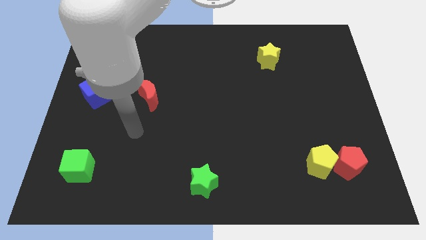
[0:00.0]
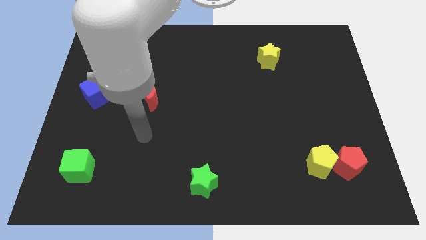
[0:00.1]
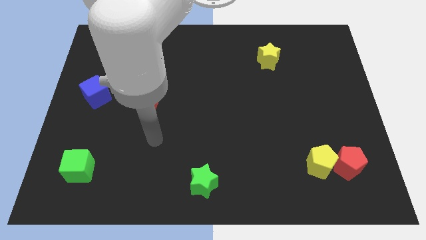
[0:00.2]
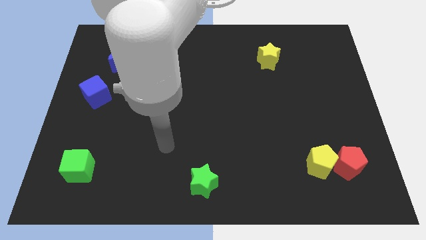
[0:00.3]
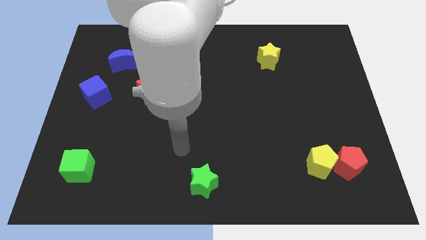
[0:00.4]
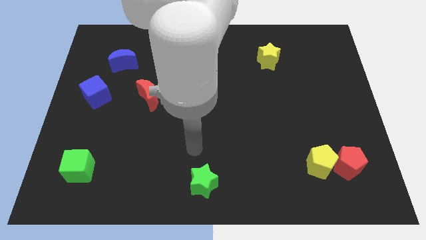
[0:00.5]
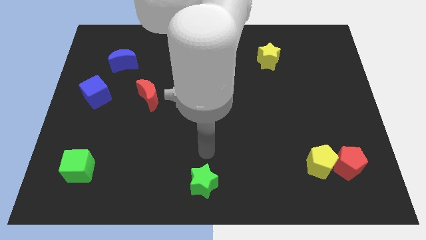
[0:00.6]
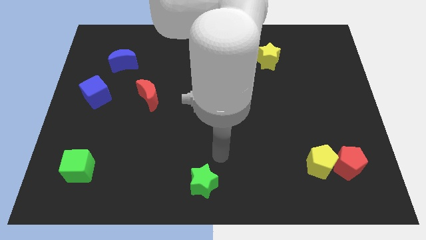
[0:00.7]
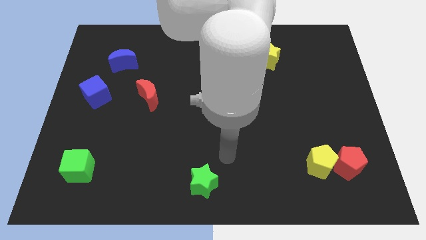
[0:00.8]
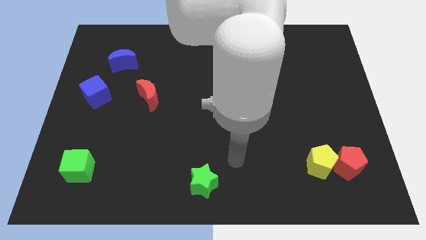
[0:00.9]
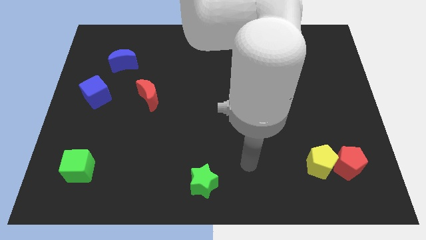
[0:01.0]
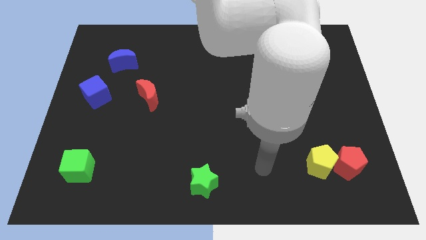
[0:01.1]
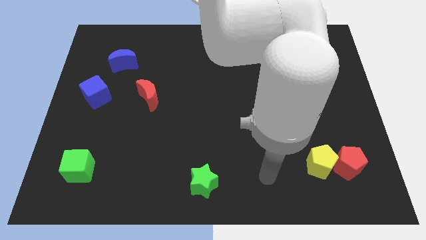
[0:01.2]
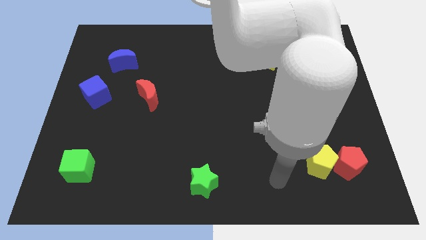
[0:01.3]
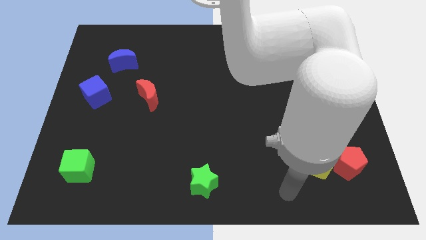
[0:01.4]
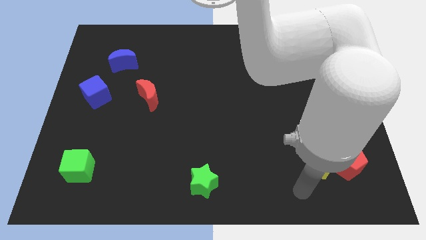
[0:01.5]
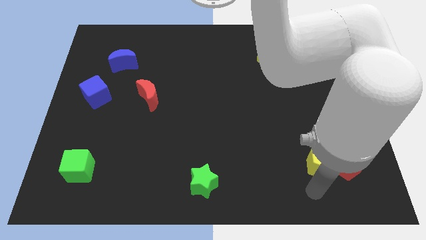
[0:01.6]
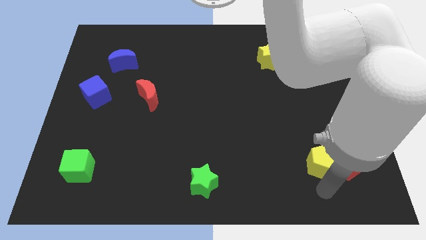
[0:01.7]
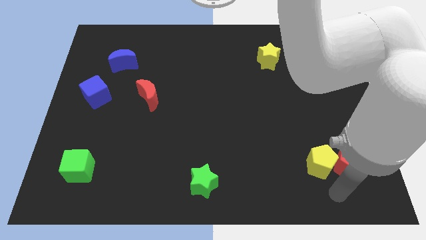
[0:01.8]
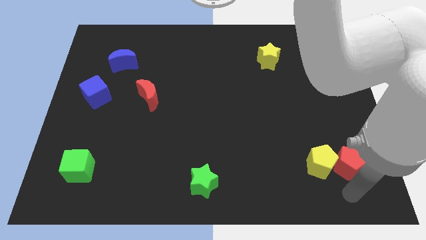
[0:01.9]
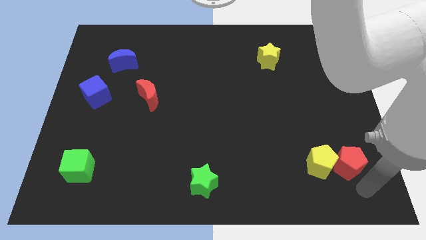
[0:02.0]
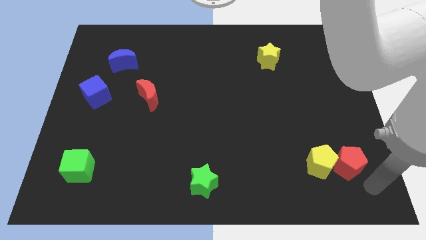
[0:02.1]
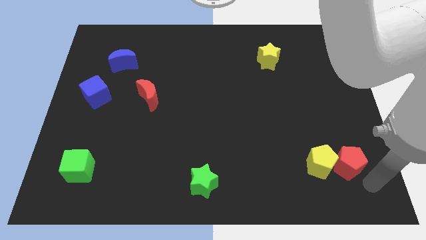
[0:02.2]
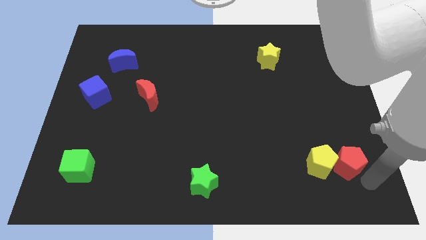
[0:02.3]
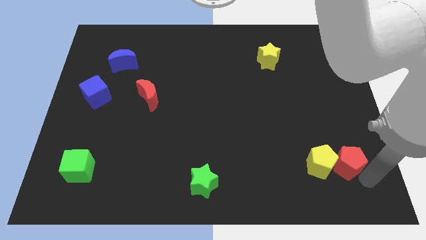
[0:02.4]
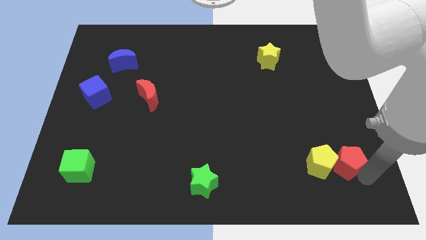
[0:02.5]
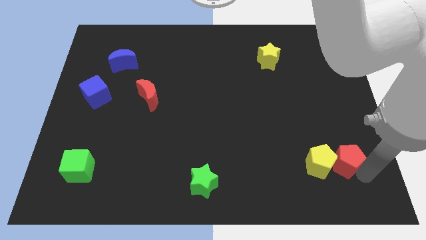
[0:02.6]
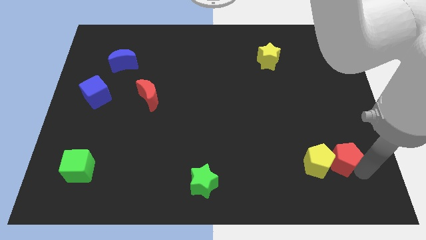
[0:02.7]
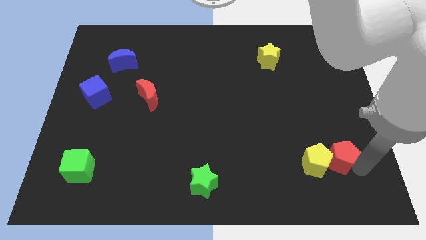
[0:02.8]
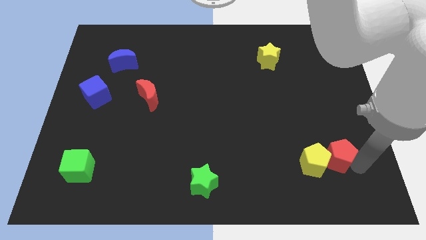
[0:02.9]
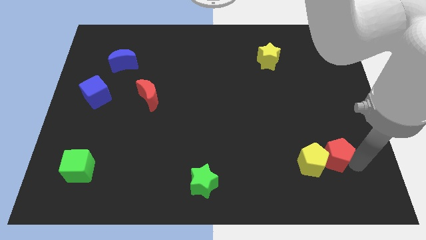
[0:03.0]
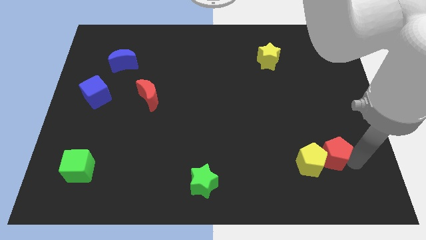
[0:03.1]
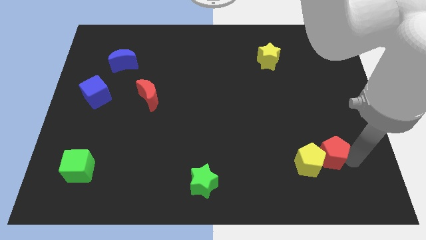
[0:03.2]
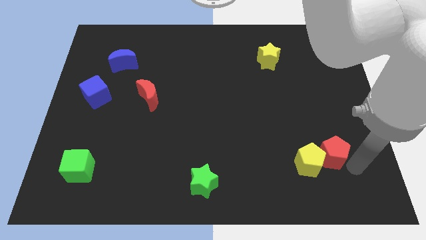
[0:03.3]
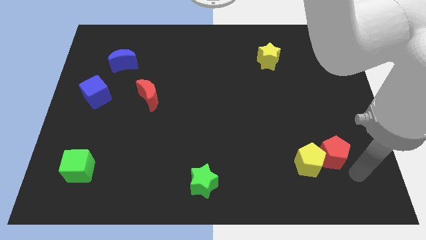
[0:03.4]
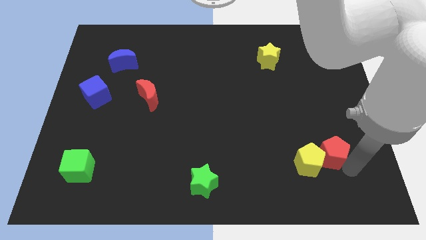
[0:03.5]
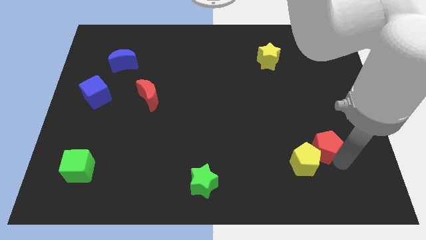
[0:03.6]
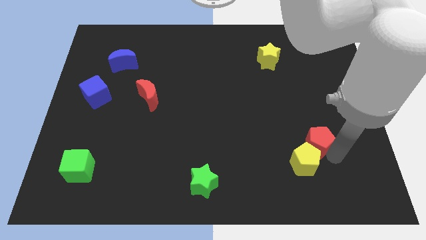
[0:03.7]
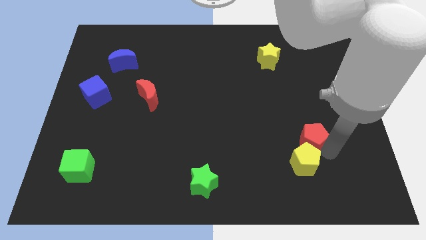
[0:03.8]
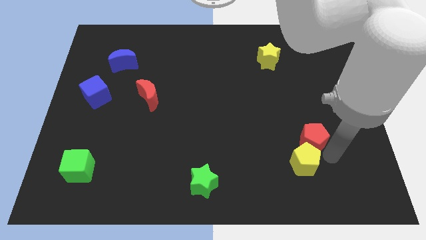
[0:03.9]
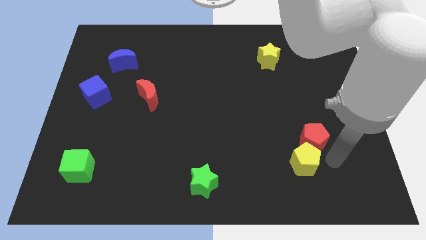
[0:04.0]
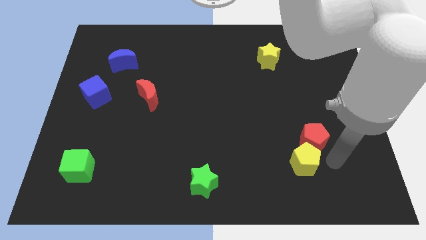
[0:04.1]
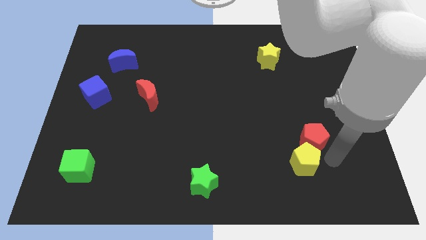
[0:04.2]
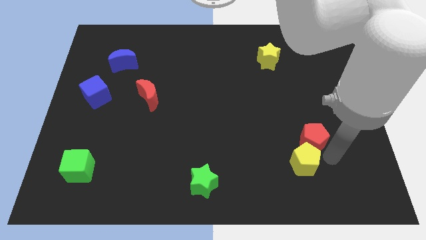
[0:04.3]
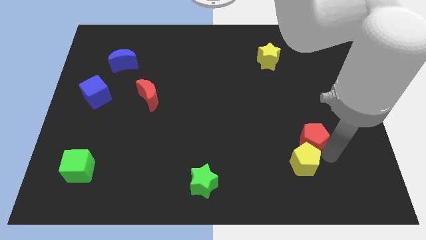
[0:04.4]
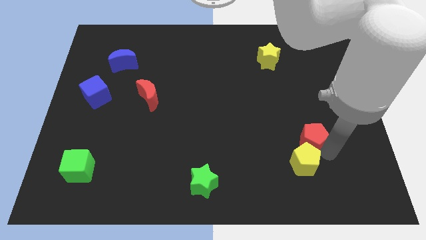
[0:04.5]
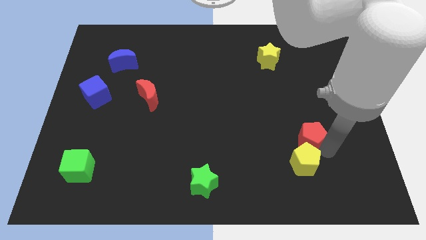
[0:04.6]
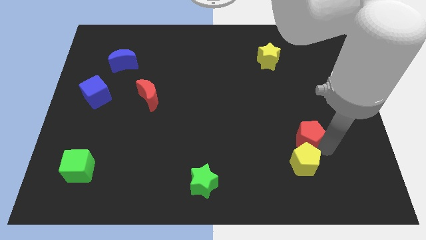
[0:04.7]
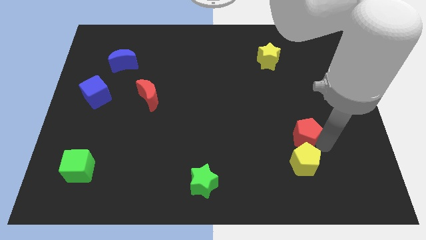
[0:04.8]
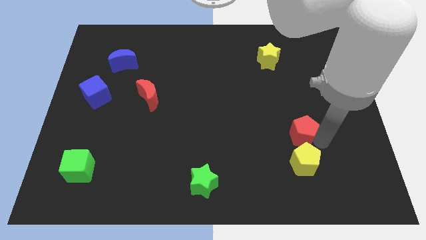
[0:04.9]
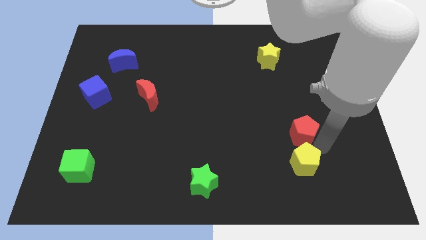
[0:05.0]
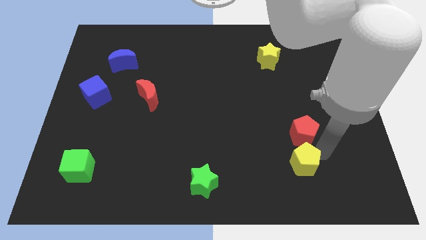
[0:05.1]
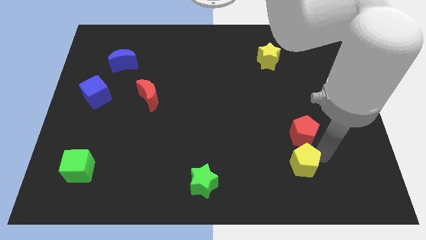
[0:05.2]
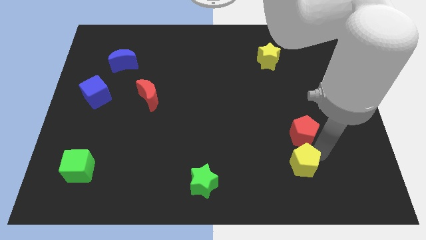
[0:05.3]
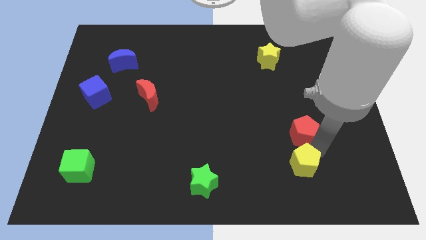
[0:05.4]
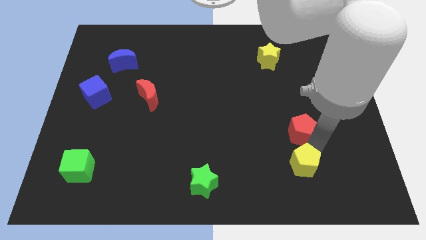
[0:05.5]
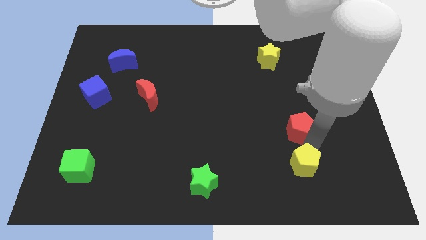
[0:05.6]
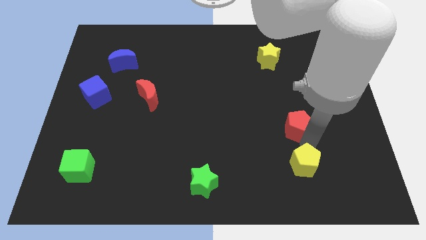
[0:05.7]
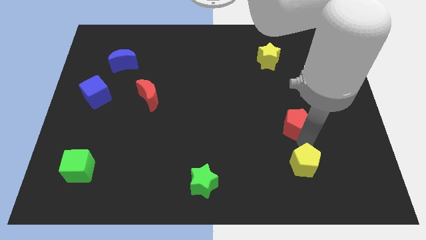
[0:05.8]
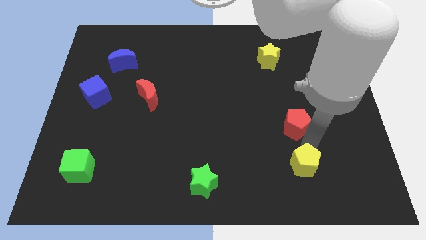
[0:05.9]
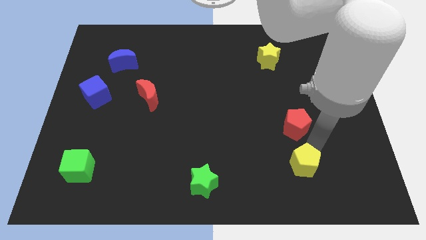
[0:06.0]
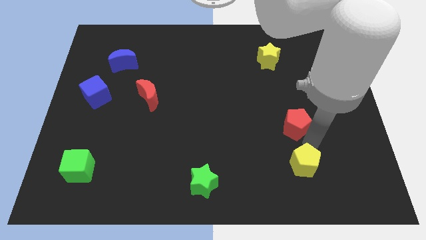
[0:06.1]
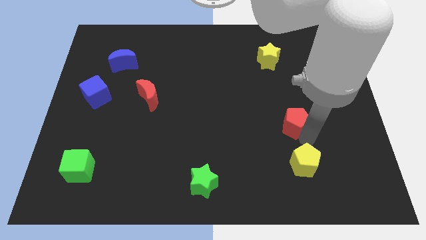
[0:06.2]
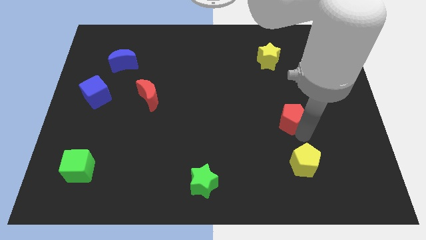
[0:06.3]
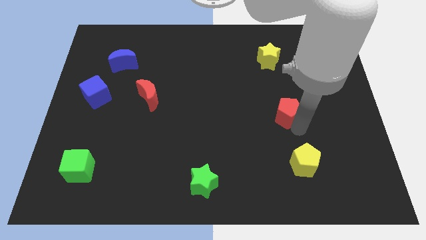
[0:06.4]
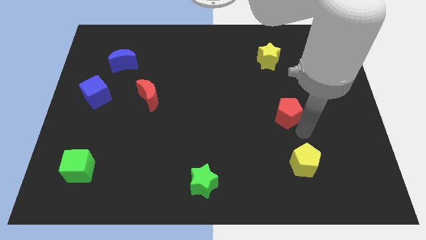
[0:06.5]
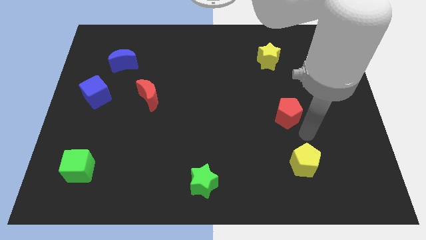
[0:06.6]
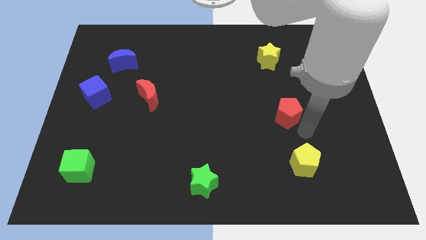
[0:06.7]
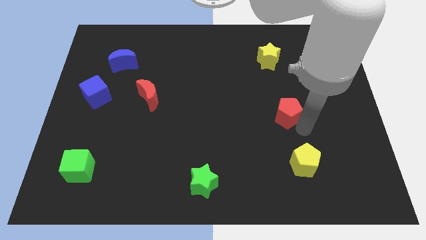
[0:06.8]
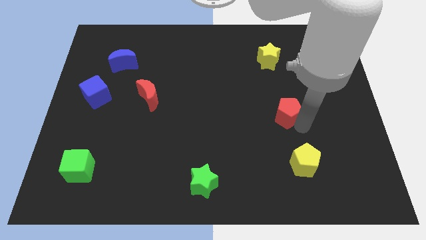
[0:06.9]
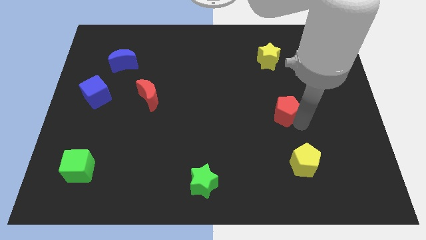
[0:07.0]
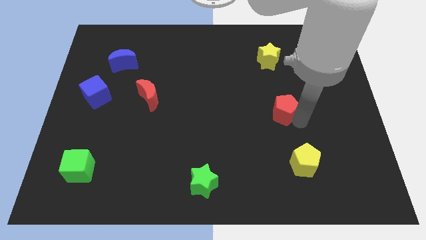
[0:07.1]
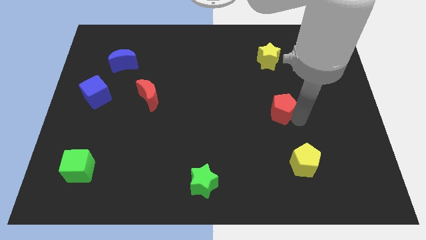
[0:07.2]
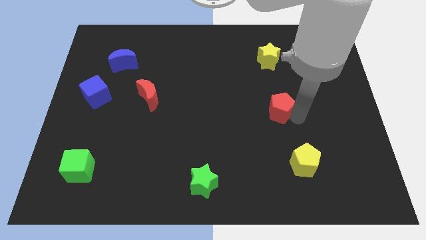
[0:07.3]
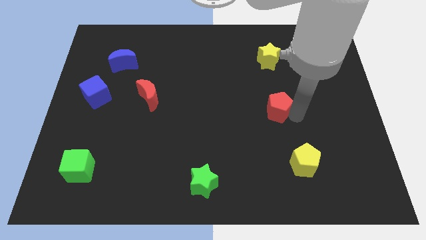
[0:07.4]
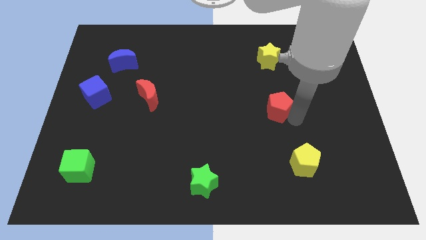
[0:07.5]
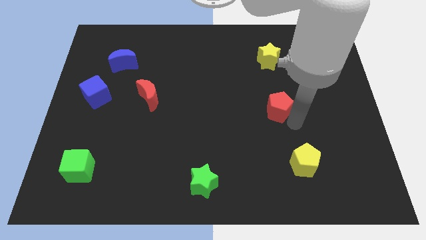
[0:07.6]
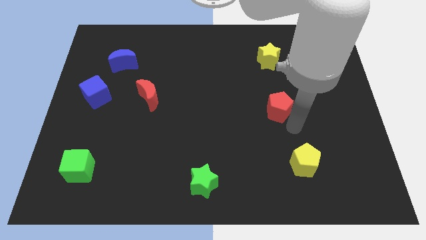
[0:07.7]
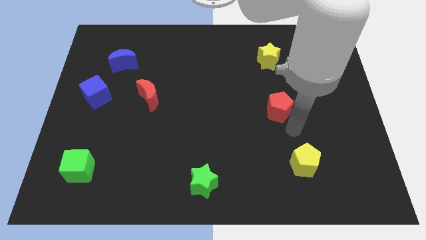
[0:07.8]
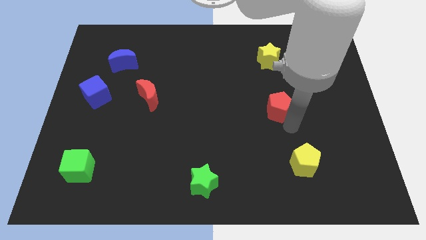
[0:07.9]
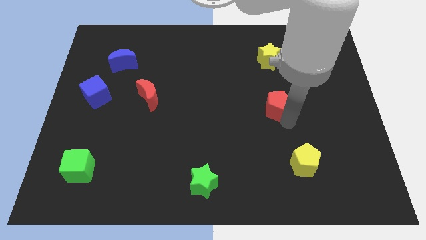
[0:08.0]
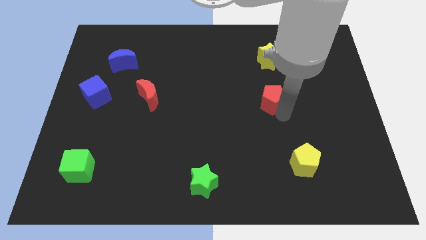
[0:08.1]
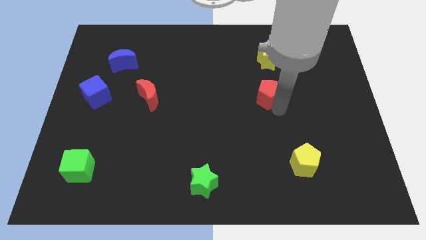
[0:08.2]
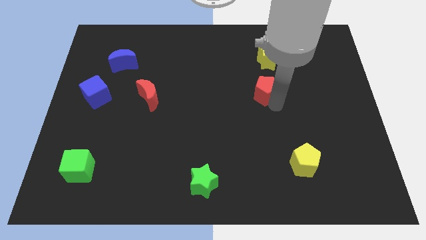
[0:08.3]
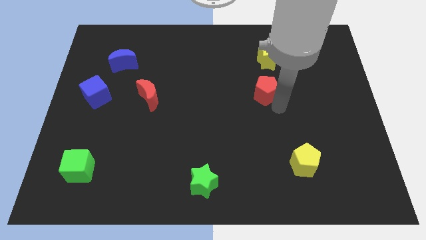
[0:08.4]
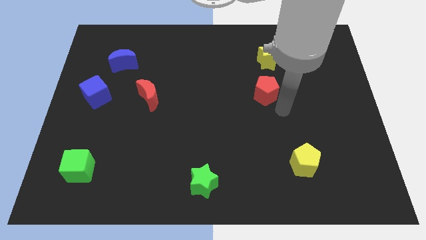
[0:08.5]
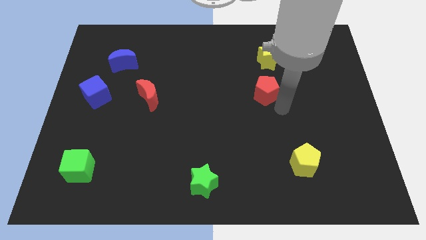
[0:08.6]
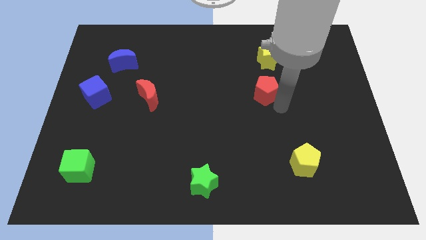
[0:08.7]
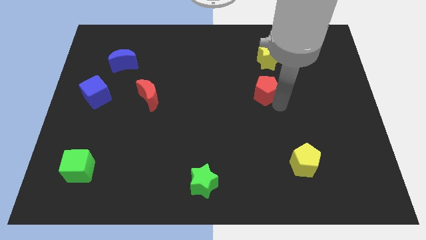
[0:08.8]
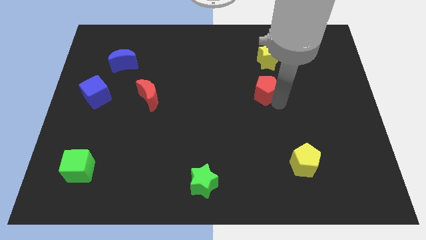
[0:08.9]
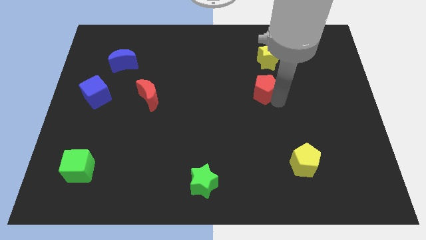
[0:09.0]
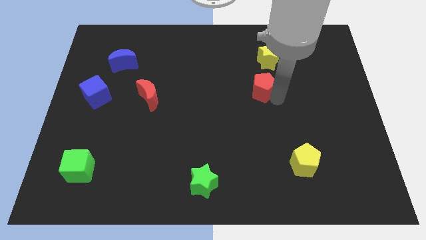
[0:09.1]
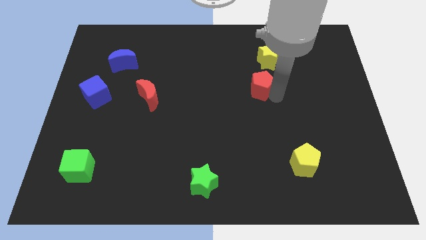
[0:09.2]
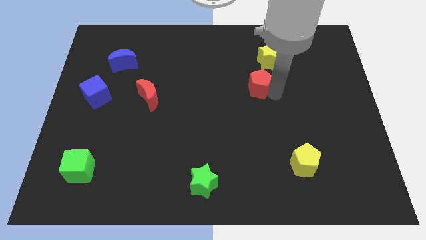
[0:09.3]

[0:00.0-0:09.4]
put the red pentagon diagonally down and to the left of the yellow star
